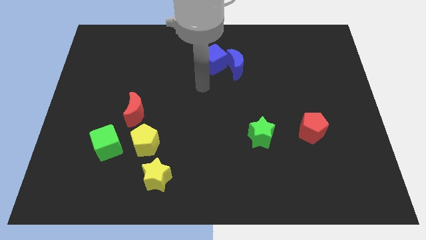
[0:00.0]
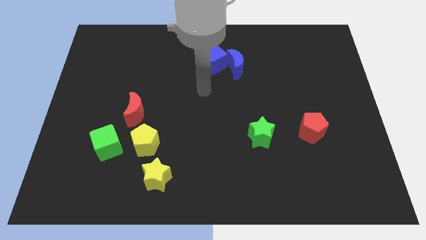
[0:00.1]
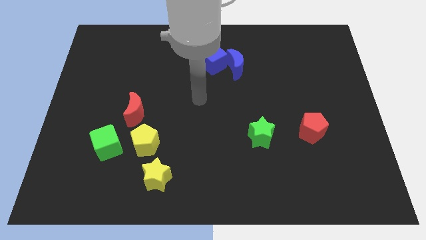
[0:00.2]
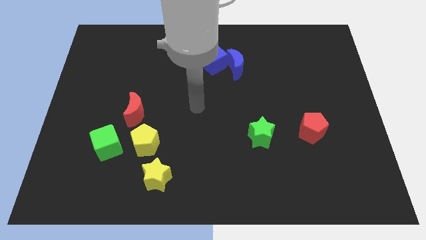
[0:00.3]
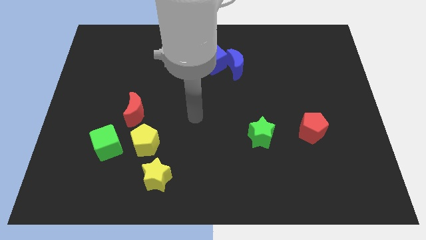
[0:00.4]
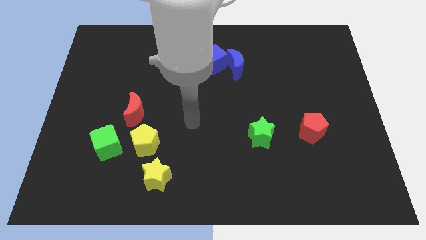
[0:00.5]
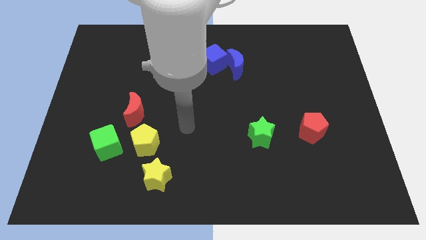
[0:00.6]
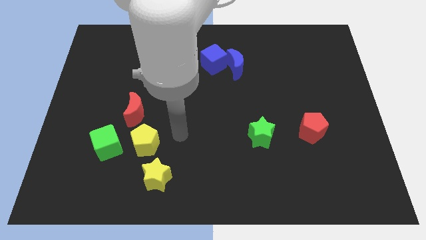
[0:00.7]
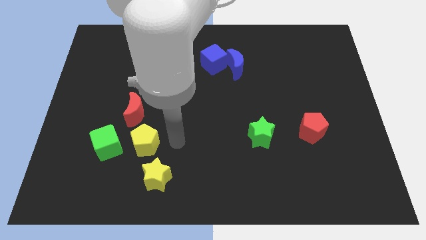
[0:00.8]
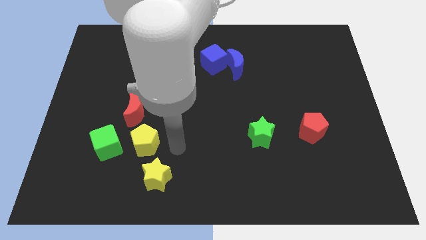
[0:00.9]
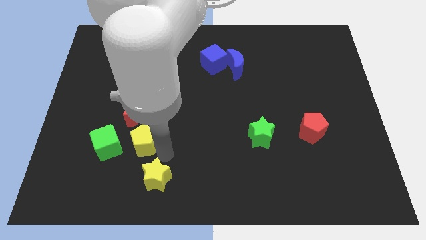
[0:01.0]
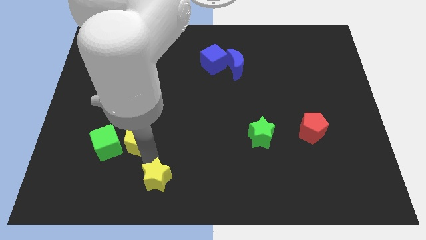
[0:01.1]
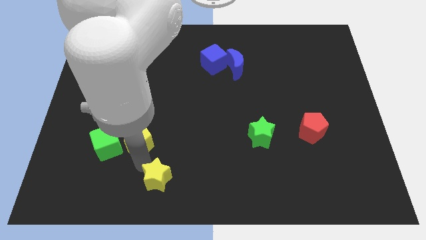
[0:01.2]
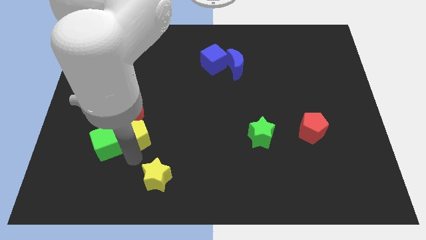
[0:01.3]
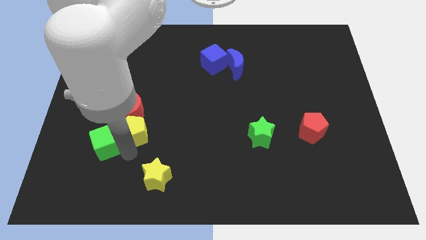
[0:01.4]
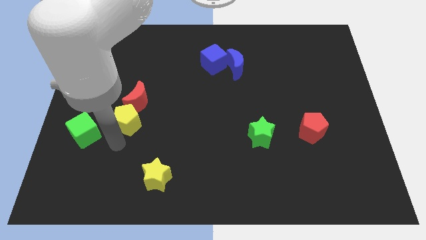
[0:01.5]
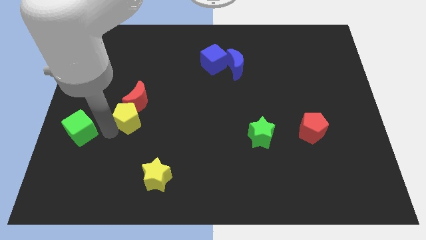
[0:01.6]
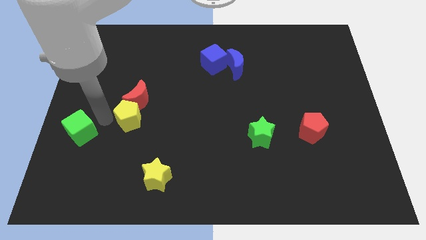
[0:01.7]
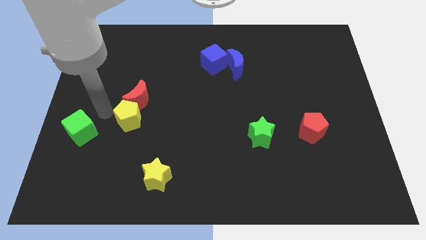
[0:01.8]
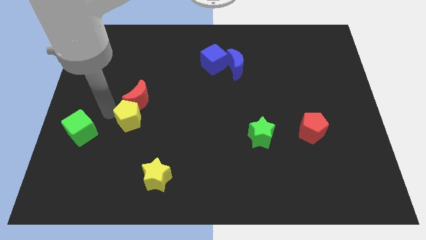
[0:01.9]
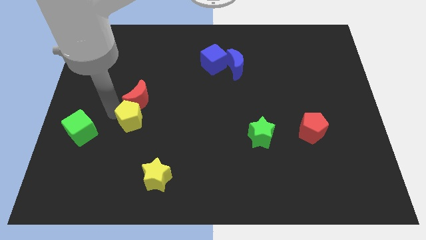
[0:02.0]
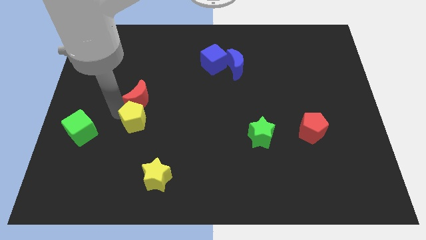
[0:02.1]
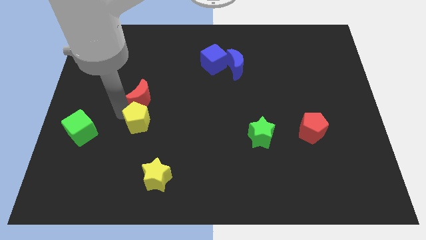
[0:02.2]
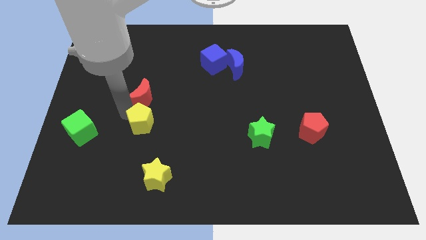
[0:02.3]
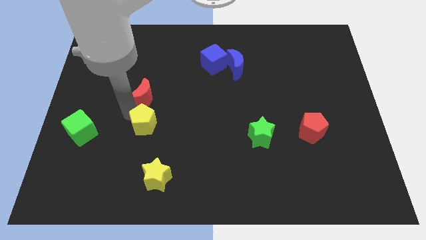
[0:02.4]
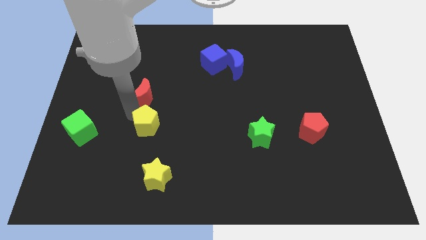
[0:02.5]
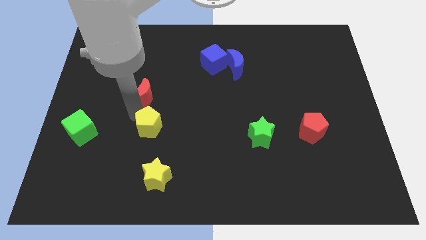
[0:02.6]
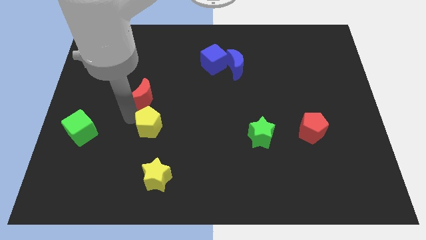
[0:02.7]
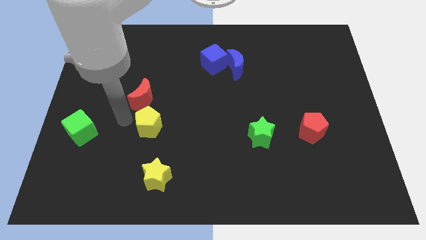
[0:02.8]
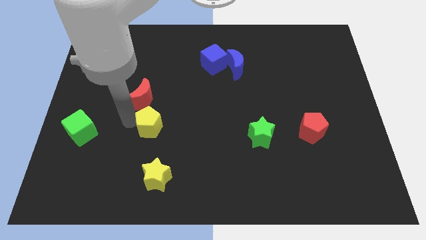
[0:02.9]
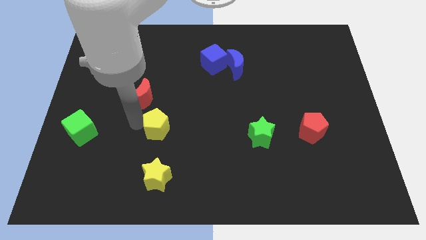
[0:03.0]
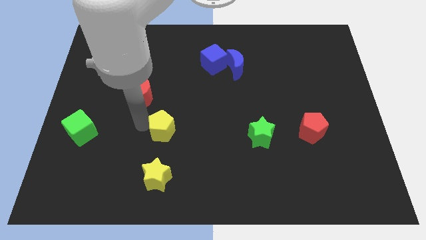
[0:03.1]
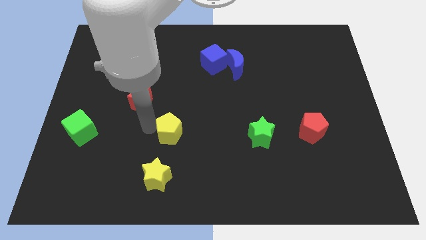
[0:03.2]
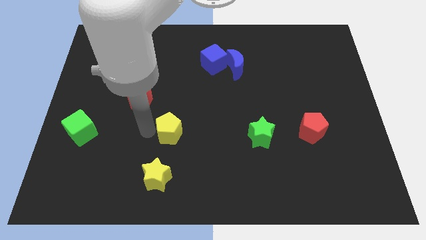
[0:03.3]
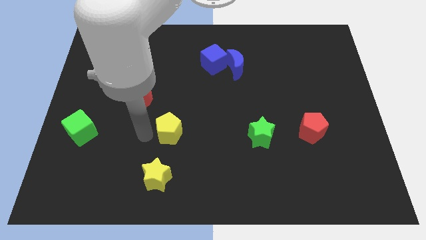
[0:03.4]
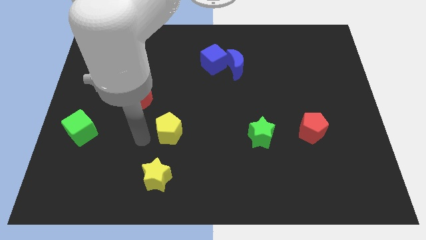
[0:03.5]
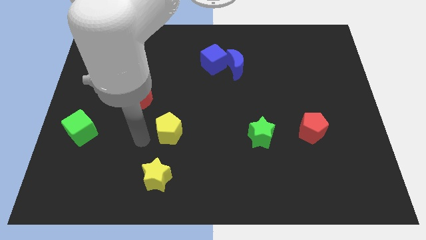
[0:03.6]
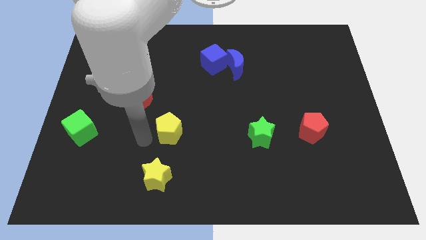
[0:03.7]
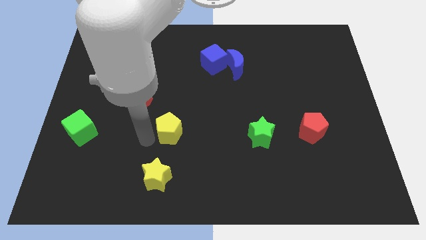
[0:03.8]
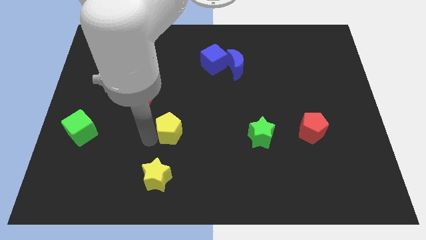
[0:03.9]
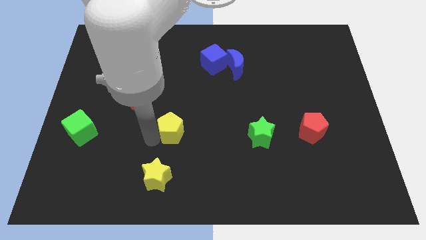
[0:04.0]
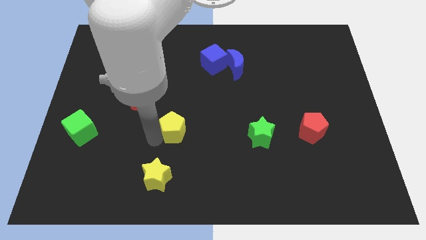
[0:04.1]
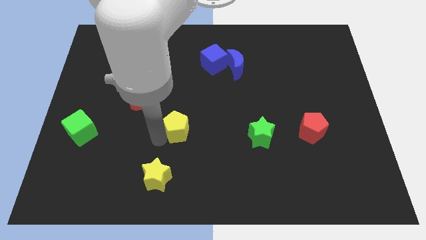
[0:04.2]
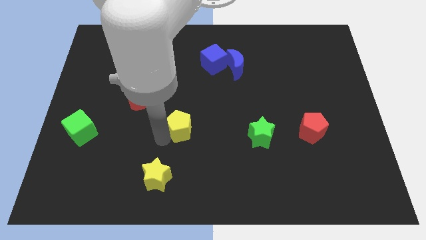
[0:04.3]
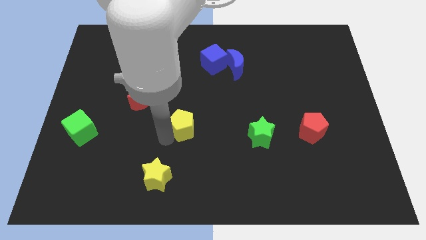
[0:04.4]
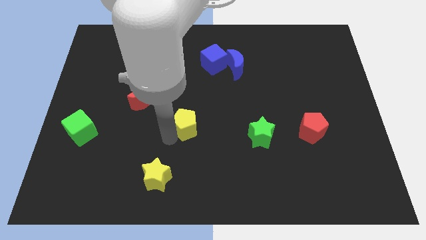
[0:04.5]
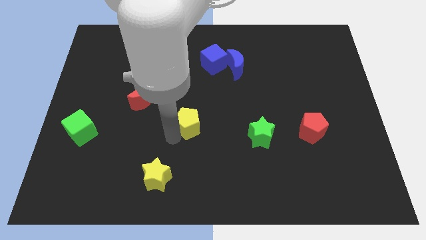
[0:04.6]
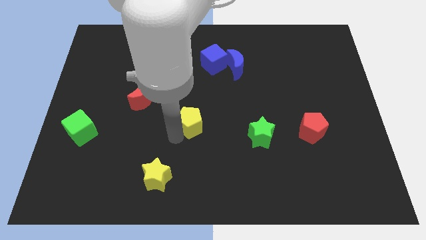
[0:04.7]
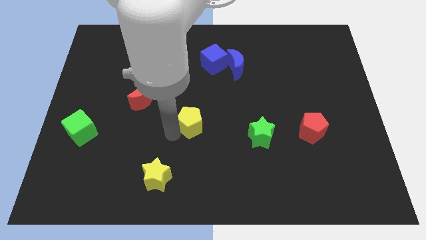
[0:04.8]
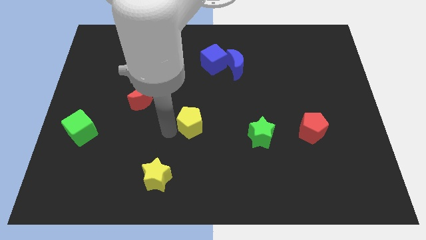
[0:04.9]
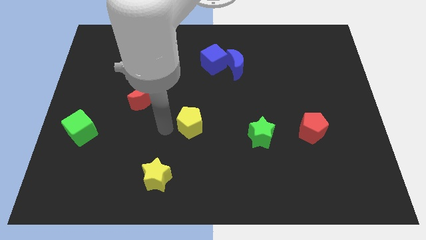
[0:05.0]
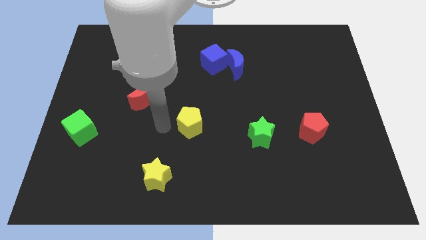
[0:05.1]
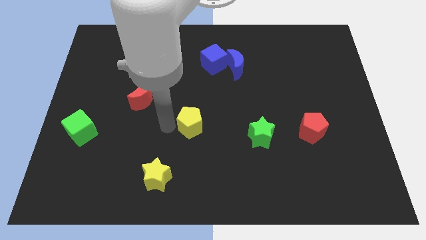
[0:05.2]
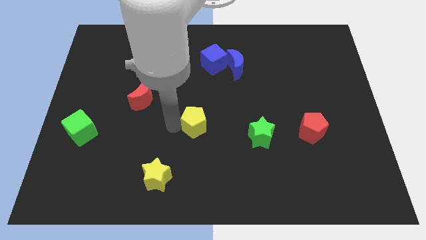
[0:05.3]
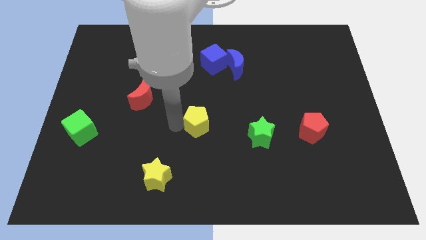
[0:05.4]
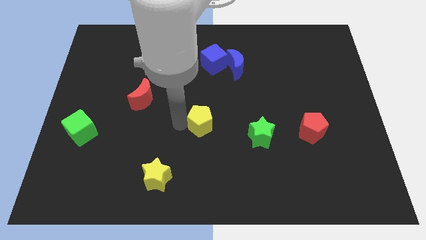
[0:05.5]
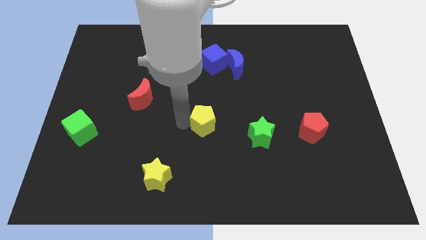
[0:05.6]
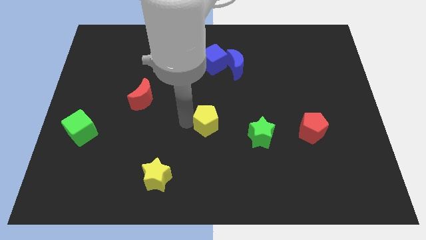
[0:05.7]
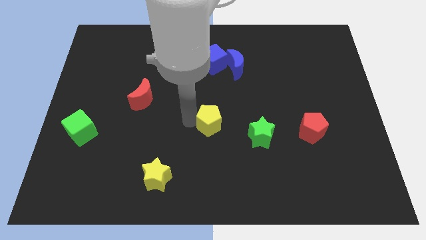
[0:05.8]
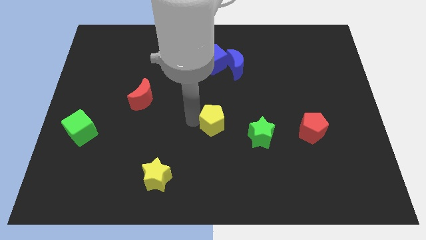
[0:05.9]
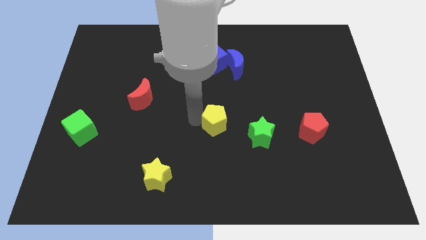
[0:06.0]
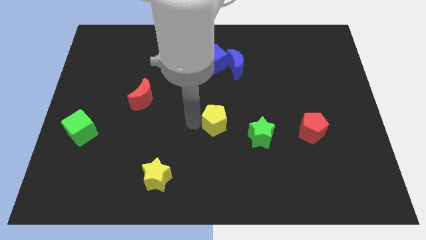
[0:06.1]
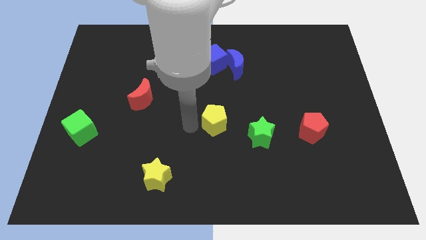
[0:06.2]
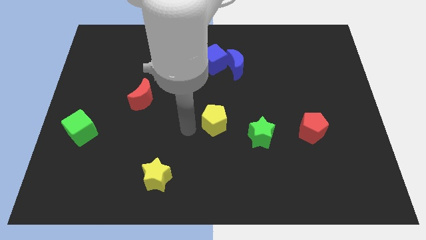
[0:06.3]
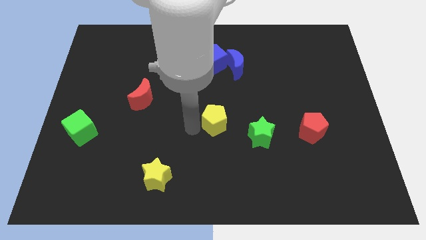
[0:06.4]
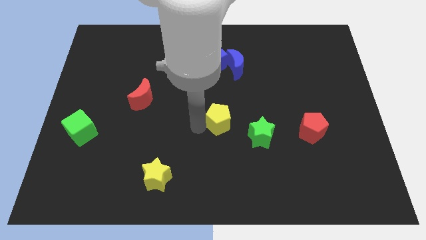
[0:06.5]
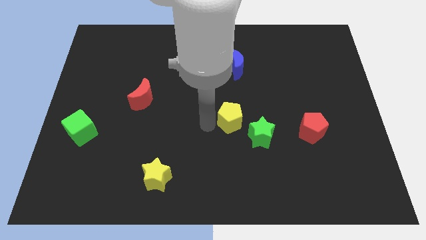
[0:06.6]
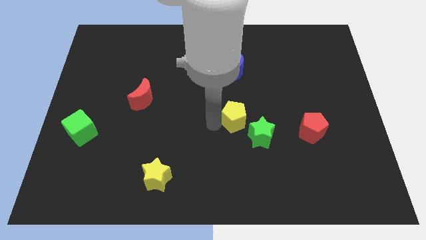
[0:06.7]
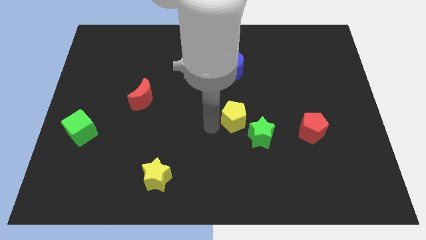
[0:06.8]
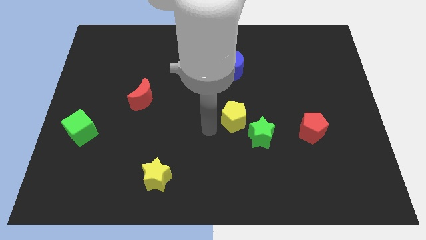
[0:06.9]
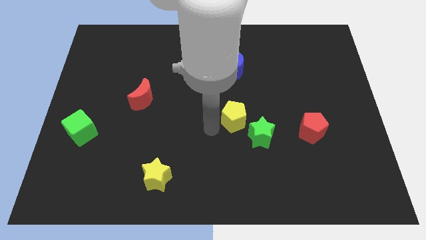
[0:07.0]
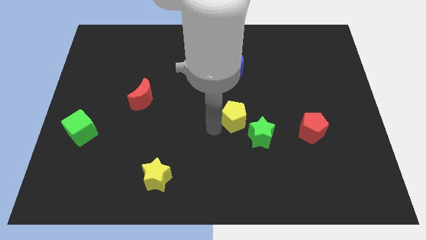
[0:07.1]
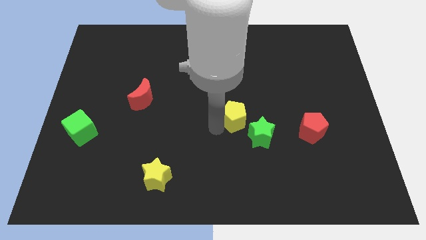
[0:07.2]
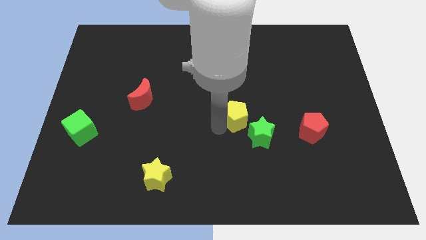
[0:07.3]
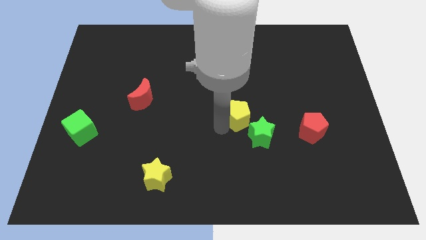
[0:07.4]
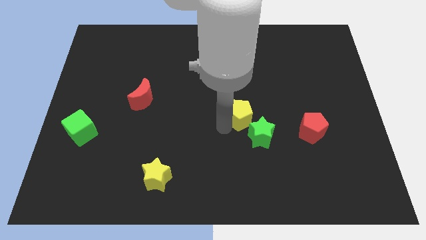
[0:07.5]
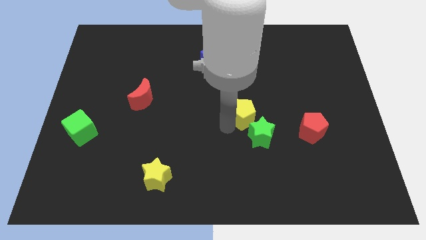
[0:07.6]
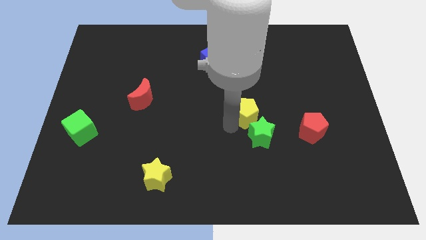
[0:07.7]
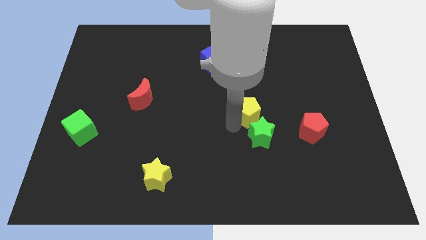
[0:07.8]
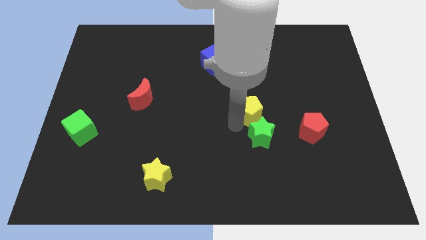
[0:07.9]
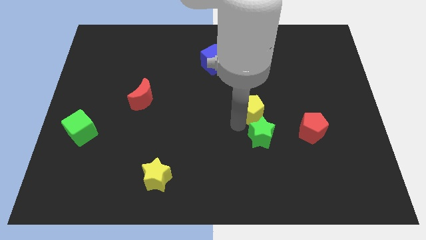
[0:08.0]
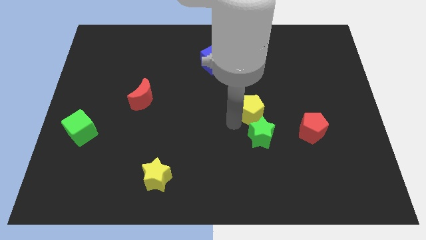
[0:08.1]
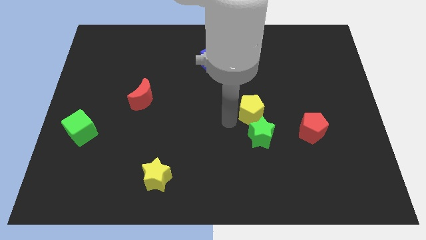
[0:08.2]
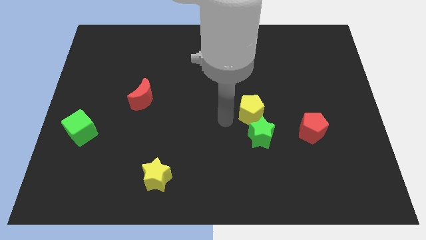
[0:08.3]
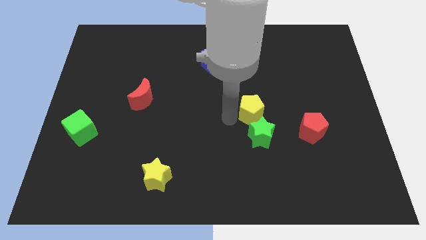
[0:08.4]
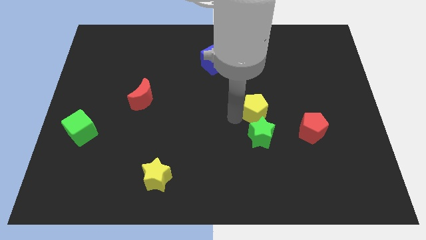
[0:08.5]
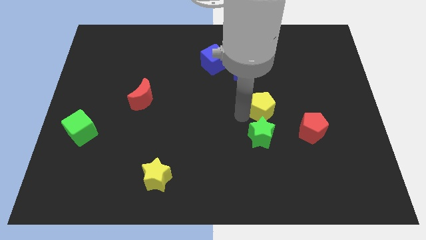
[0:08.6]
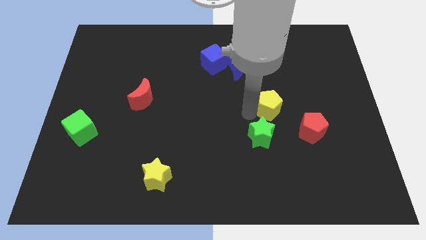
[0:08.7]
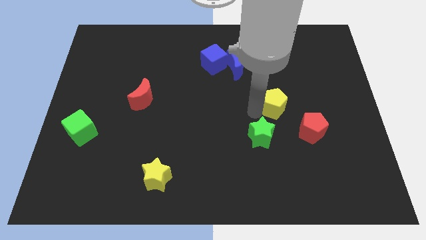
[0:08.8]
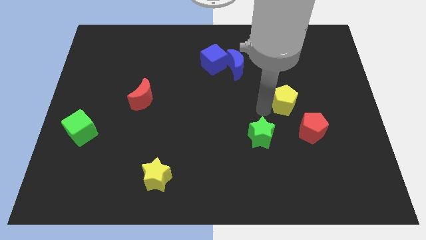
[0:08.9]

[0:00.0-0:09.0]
push the yellow pentagon to the top side of the red pentagon
